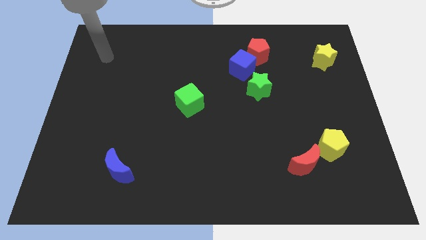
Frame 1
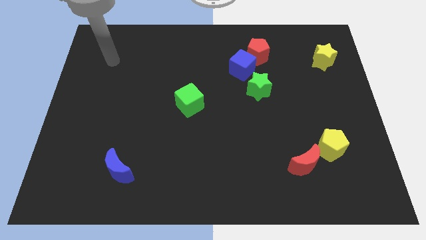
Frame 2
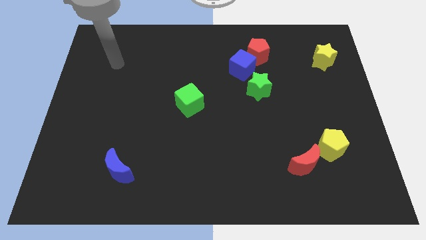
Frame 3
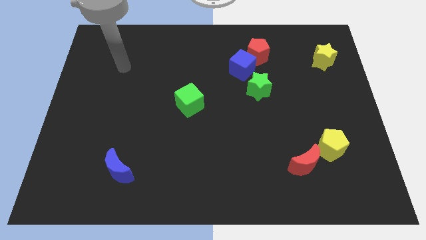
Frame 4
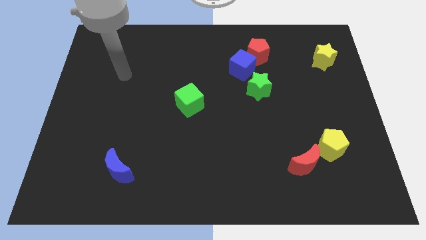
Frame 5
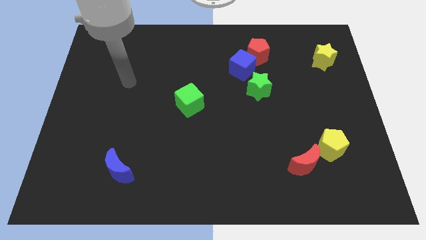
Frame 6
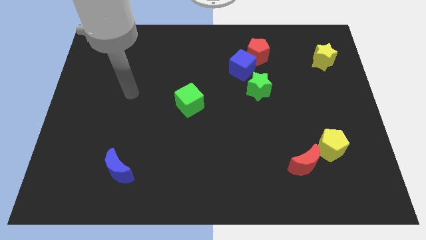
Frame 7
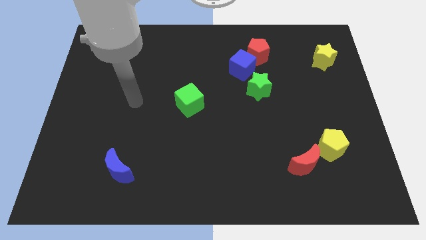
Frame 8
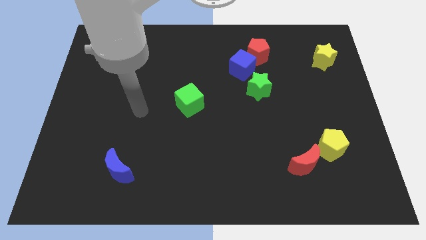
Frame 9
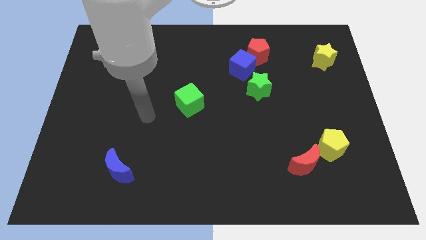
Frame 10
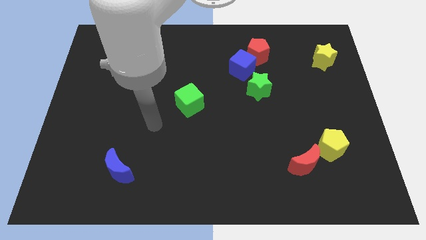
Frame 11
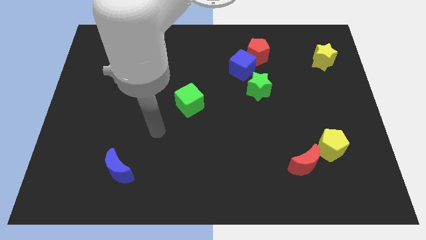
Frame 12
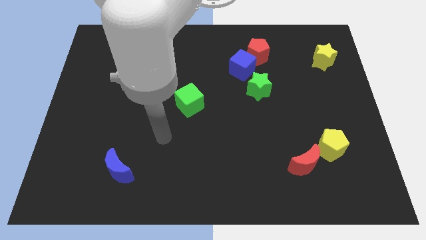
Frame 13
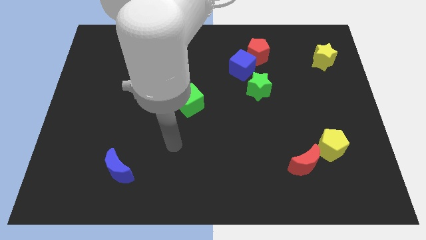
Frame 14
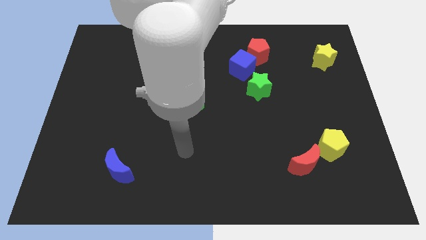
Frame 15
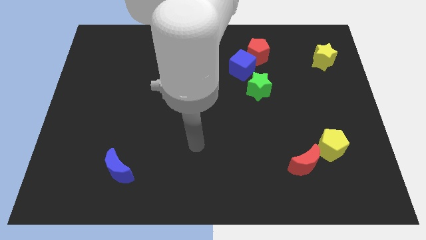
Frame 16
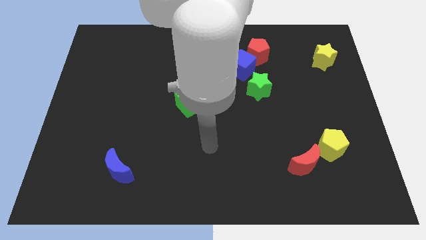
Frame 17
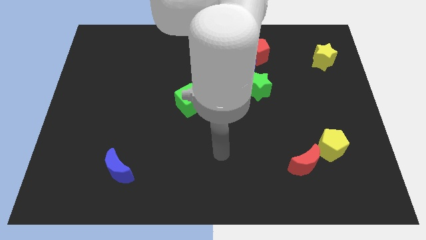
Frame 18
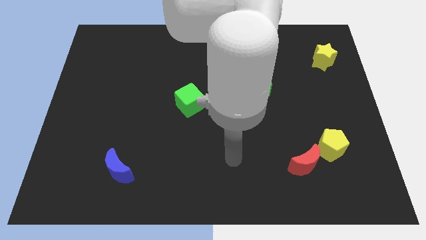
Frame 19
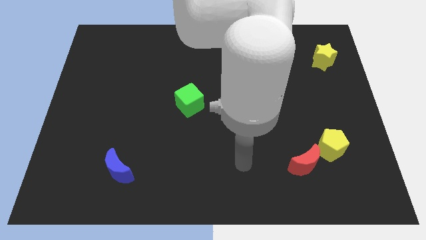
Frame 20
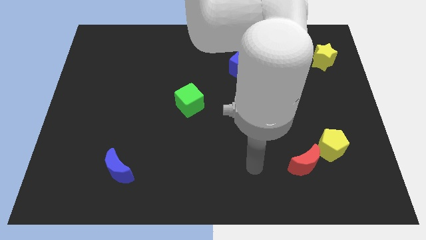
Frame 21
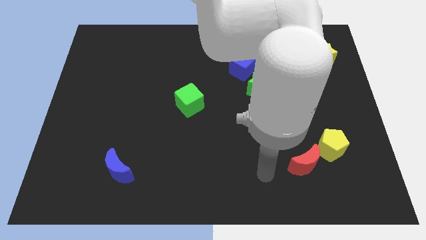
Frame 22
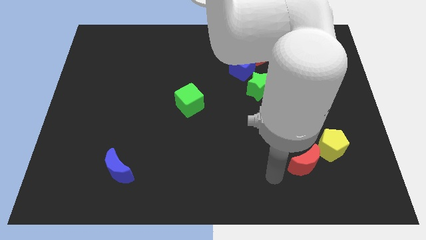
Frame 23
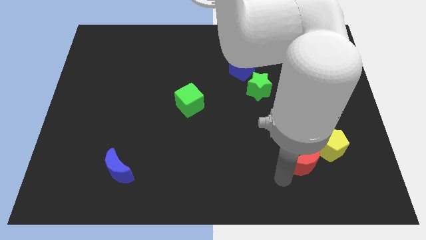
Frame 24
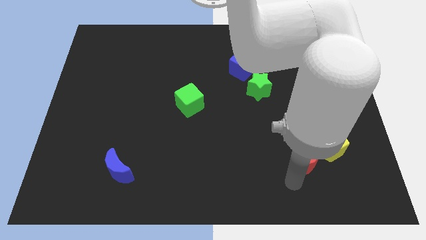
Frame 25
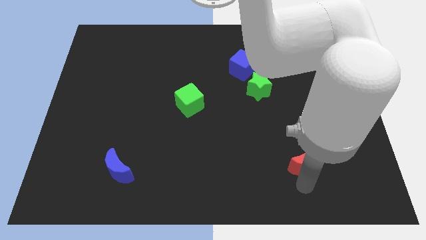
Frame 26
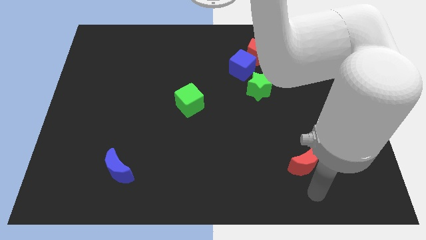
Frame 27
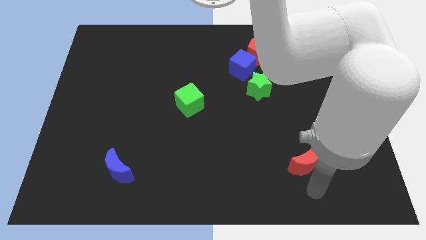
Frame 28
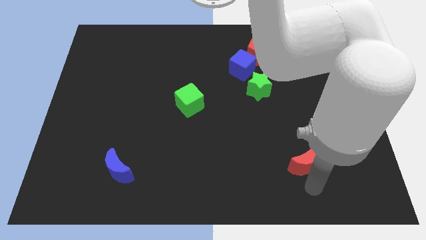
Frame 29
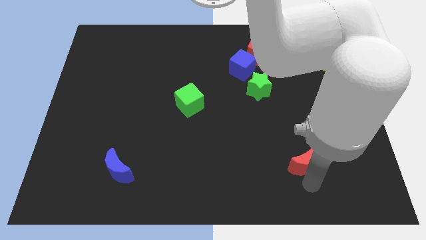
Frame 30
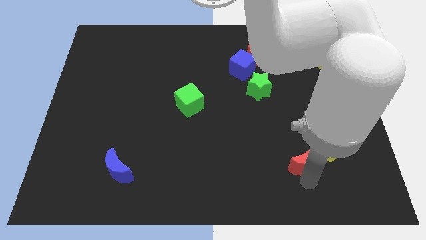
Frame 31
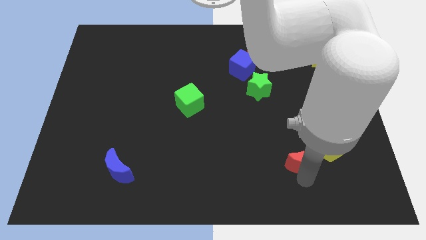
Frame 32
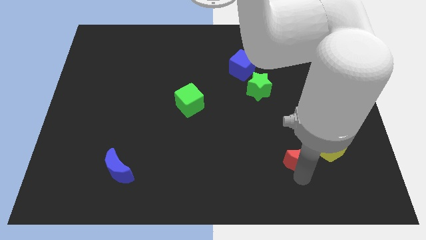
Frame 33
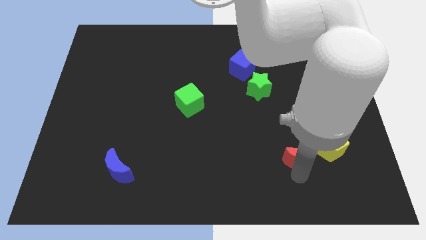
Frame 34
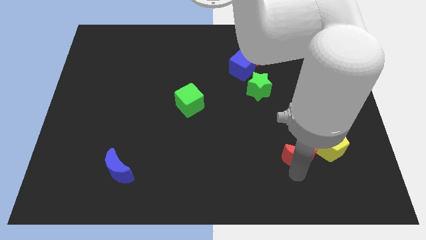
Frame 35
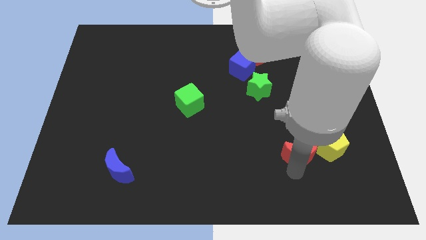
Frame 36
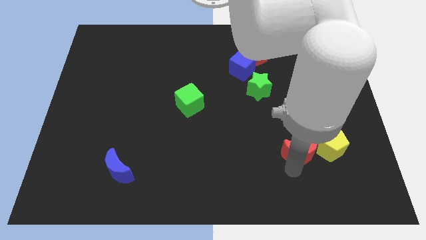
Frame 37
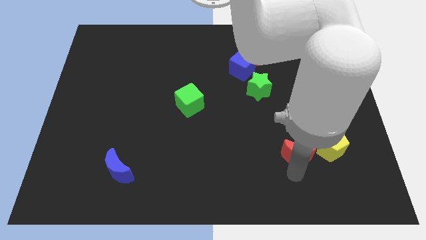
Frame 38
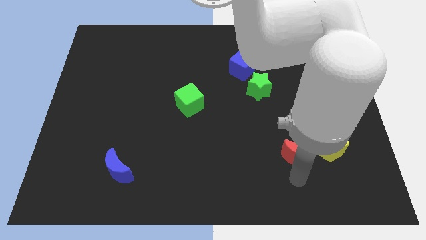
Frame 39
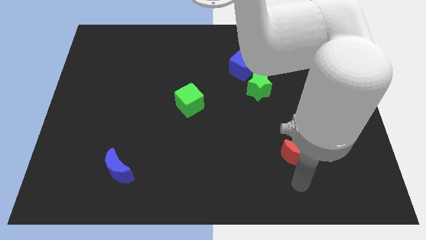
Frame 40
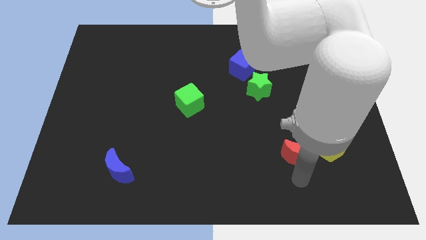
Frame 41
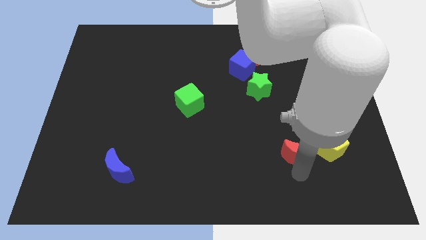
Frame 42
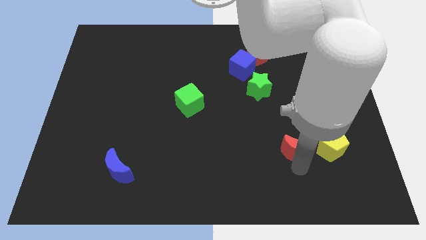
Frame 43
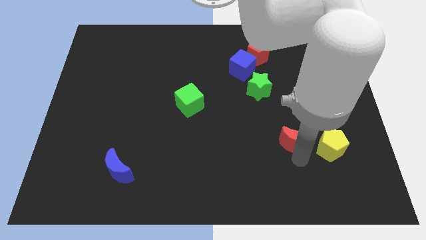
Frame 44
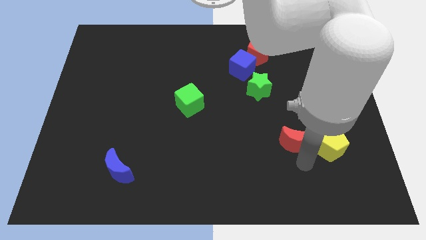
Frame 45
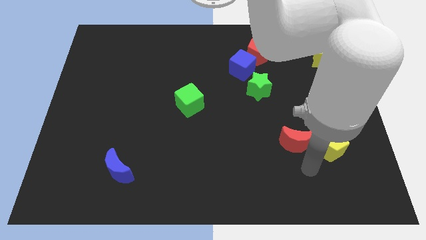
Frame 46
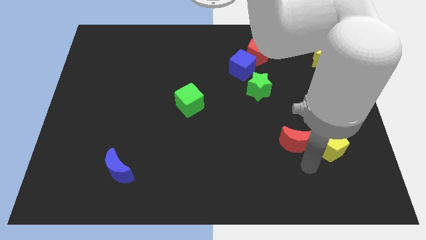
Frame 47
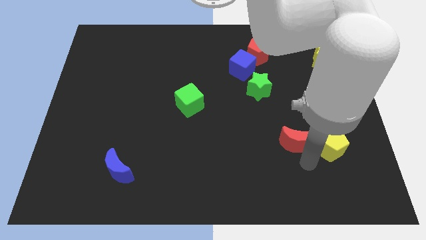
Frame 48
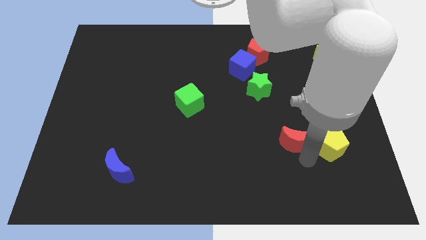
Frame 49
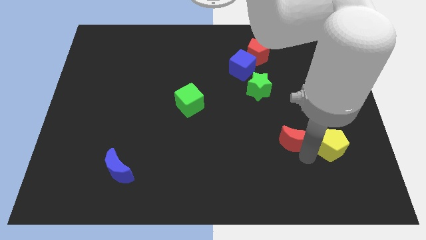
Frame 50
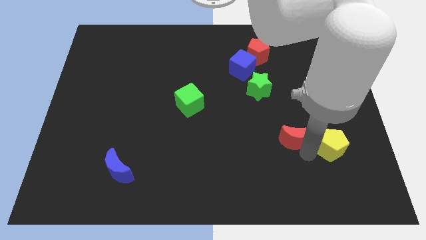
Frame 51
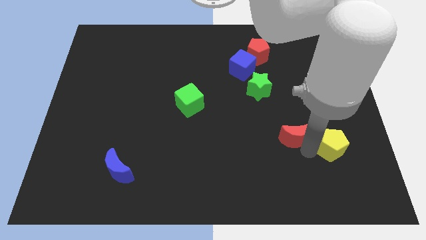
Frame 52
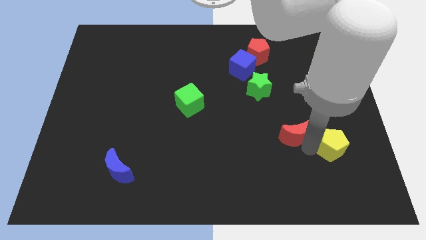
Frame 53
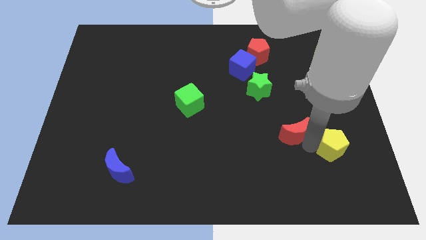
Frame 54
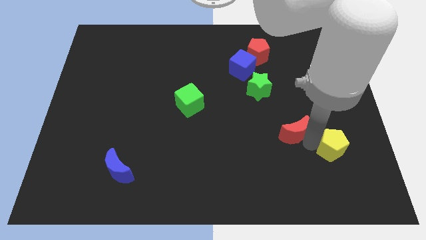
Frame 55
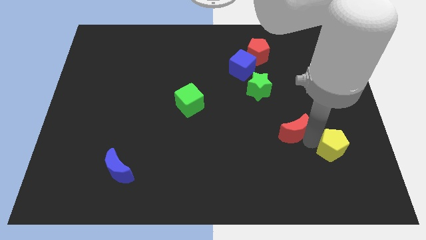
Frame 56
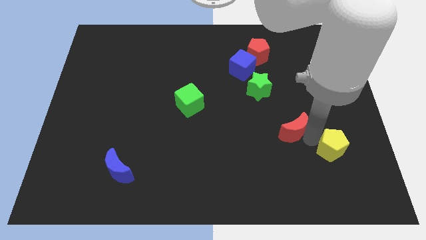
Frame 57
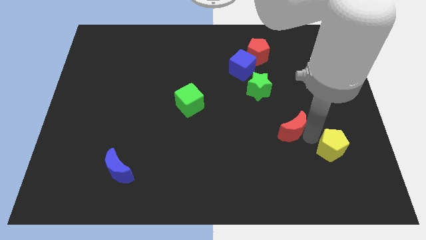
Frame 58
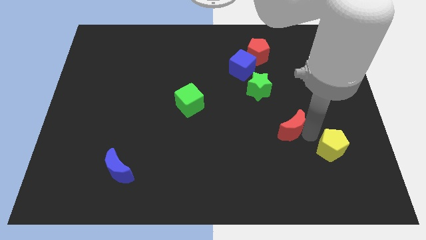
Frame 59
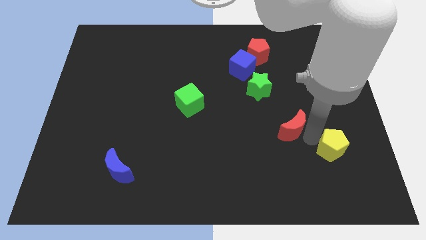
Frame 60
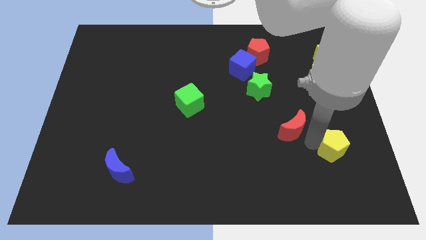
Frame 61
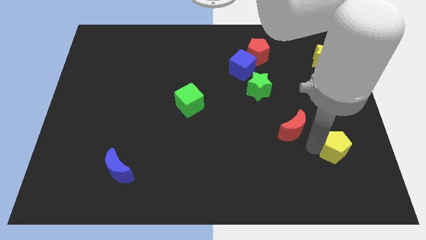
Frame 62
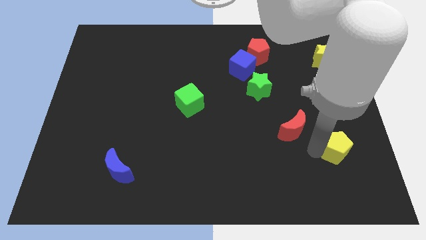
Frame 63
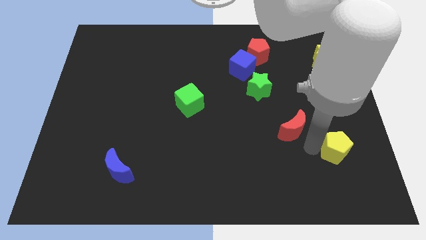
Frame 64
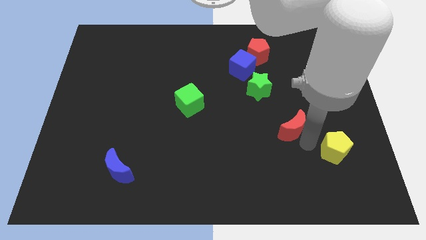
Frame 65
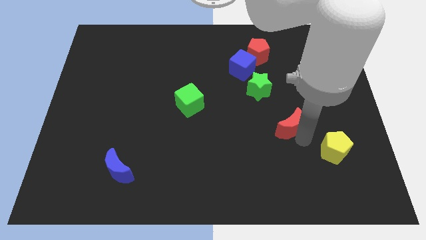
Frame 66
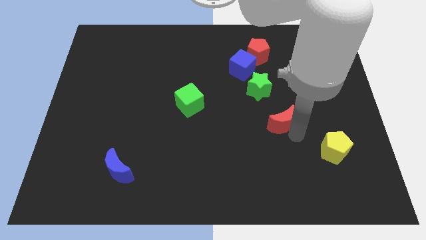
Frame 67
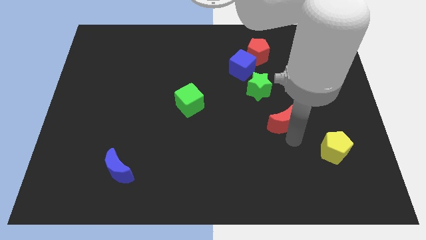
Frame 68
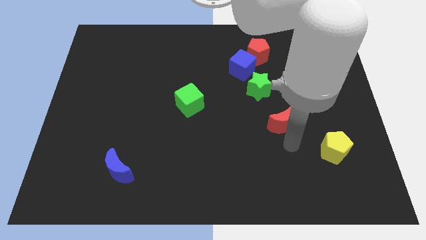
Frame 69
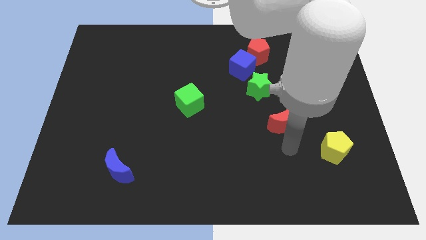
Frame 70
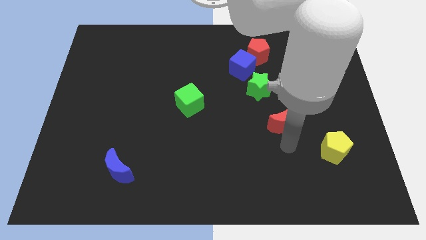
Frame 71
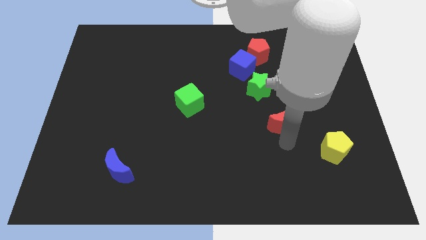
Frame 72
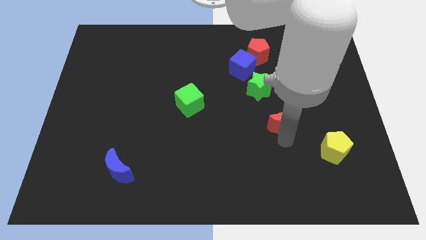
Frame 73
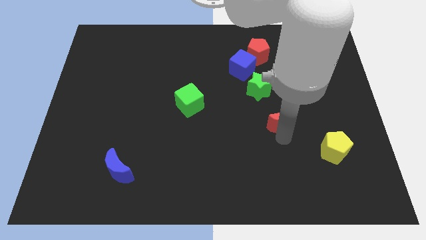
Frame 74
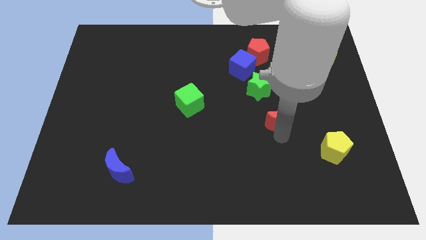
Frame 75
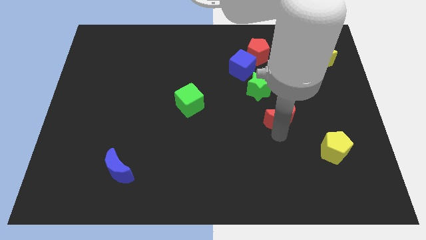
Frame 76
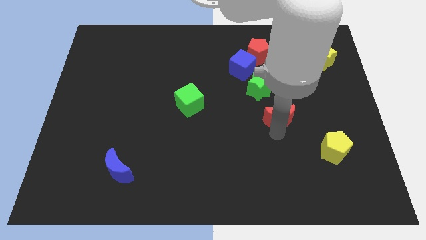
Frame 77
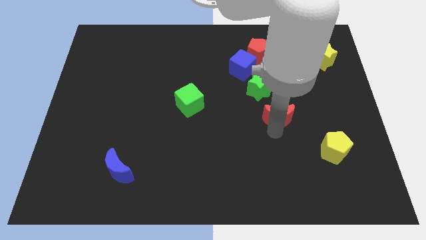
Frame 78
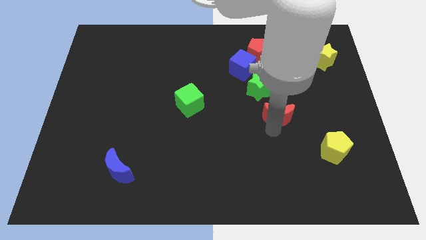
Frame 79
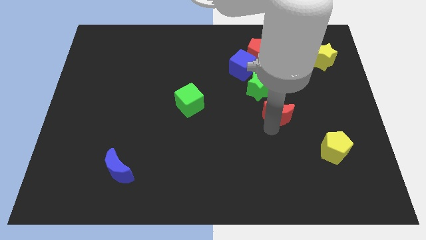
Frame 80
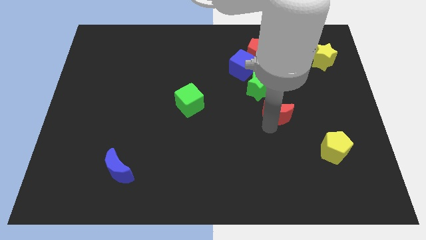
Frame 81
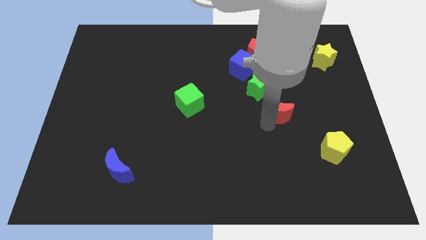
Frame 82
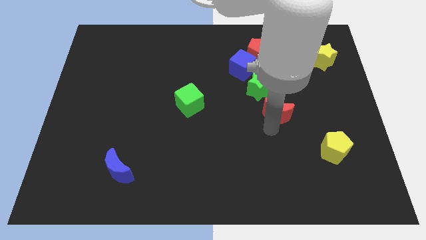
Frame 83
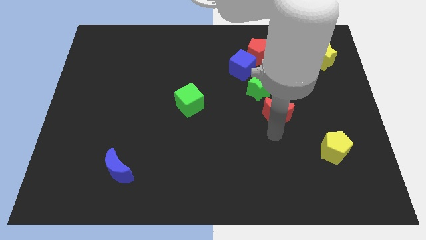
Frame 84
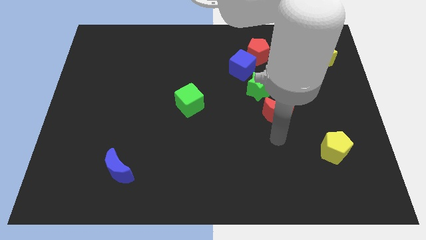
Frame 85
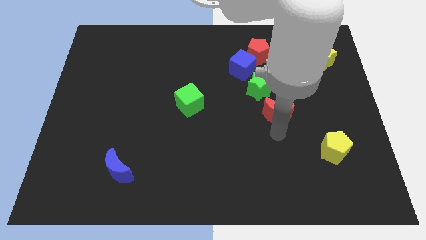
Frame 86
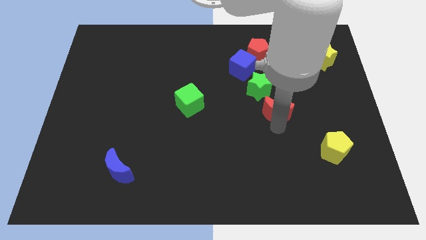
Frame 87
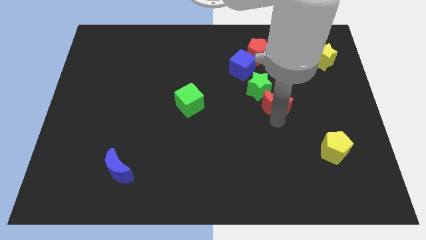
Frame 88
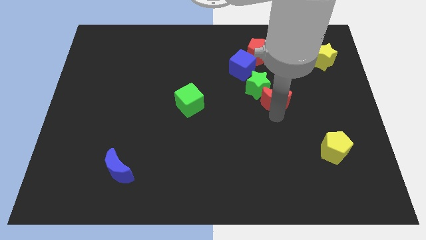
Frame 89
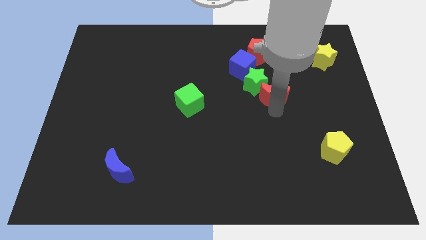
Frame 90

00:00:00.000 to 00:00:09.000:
move the red moon diagonally down and to the right of the blue cube
